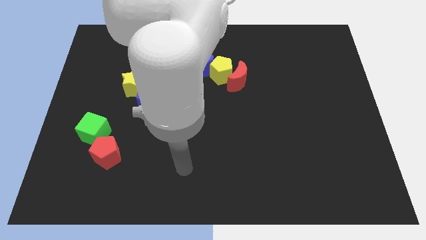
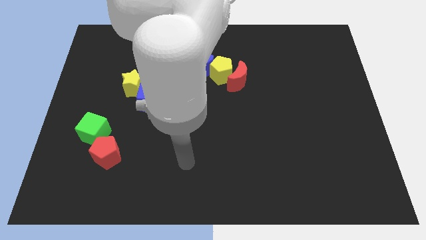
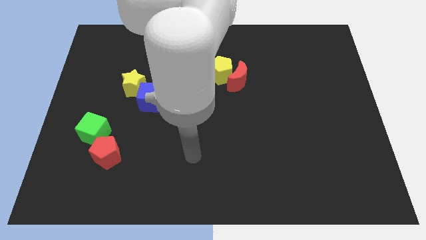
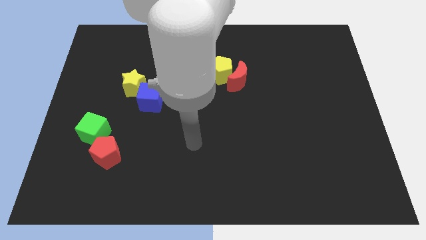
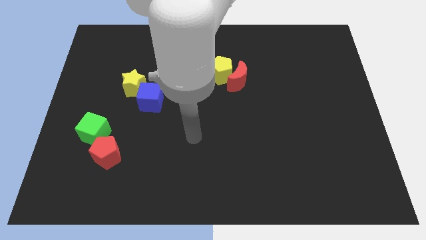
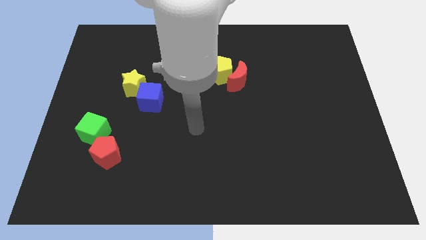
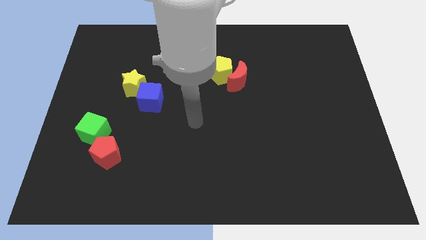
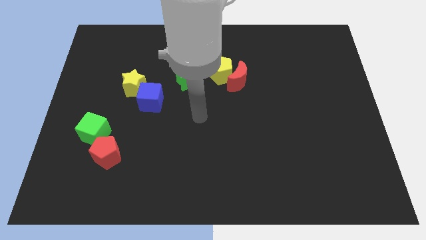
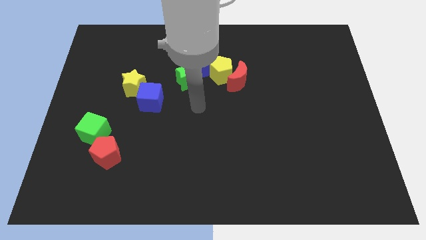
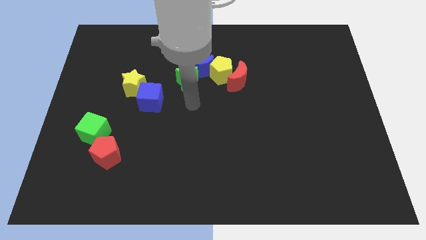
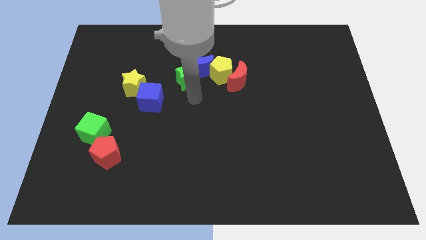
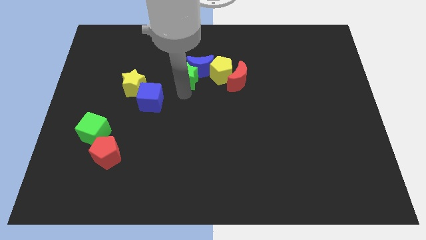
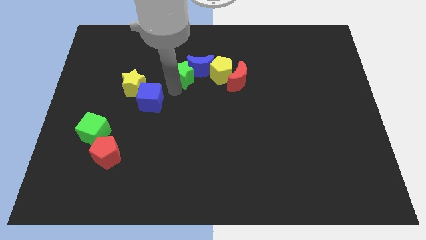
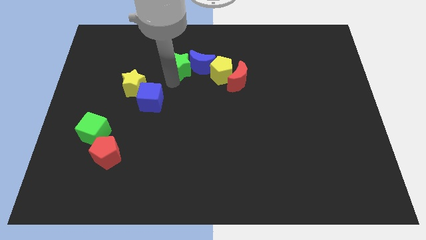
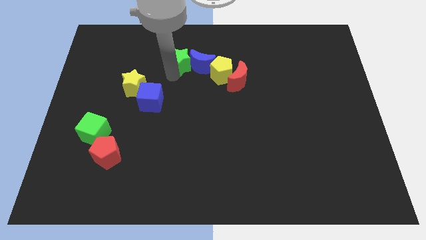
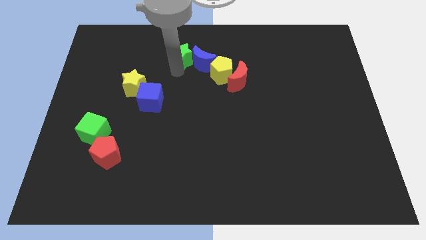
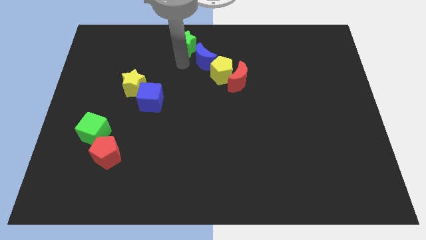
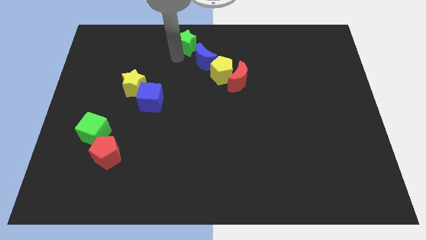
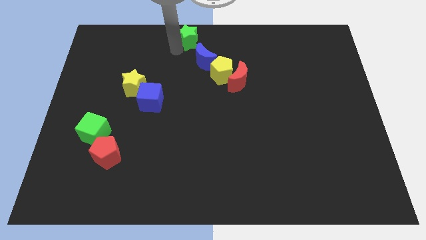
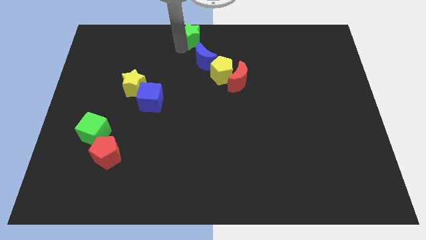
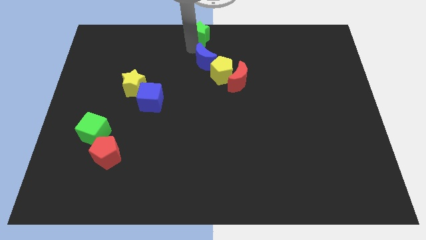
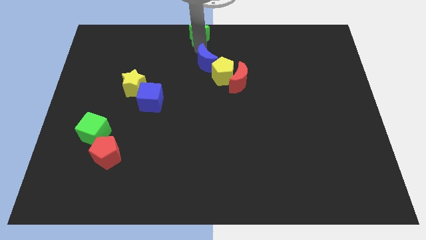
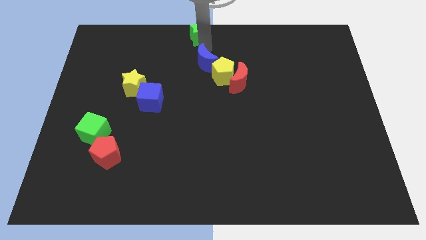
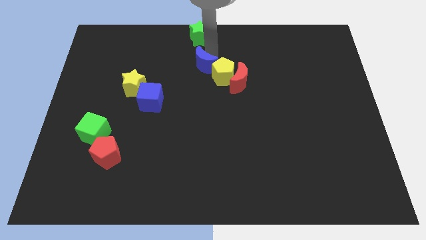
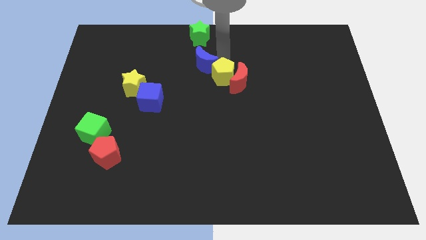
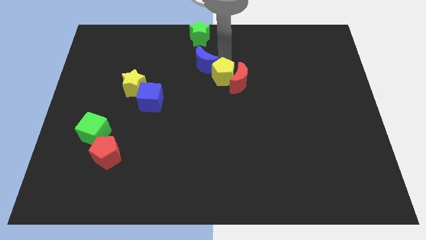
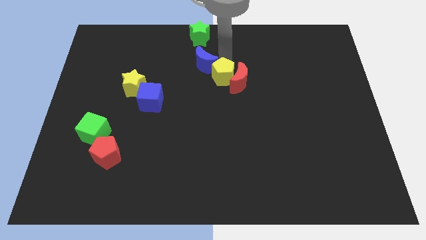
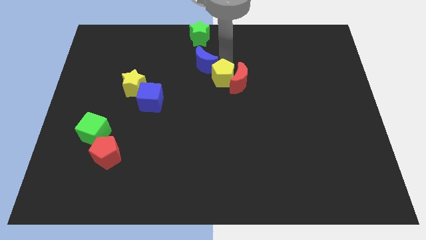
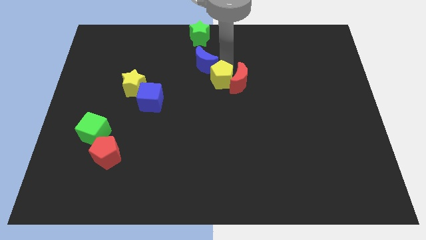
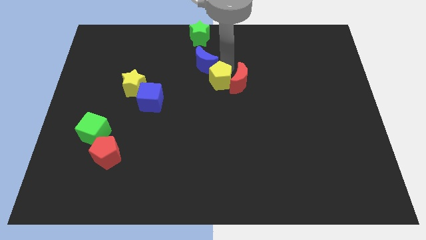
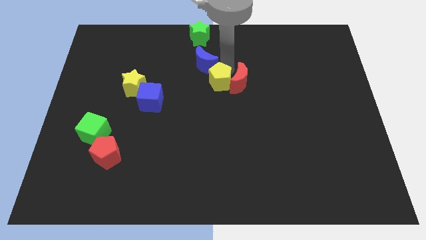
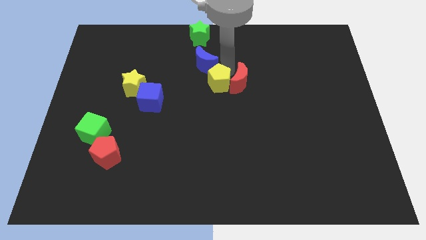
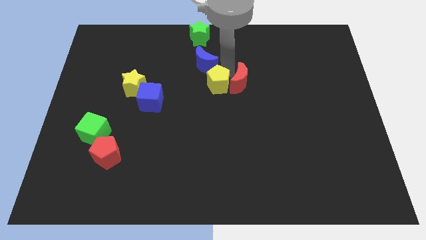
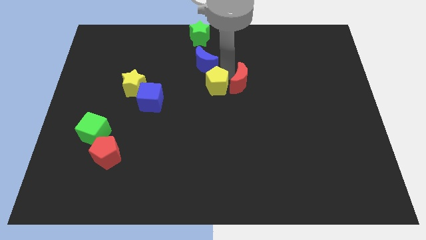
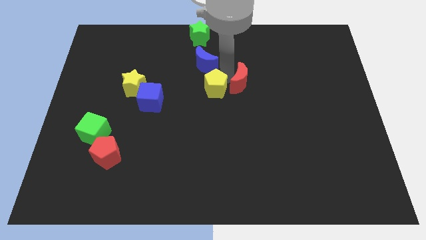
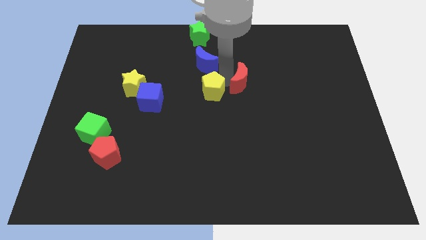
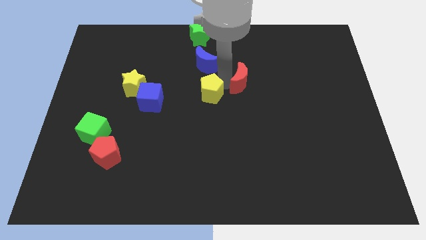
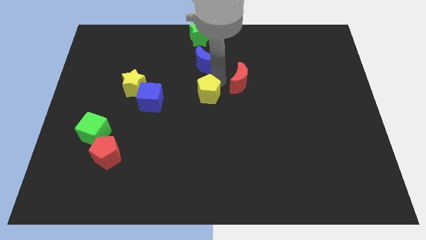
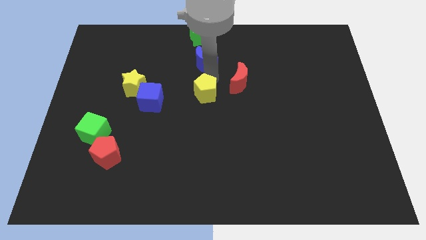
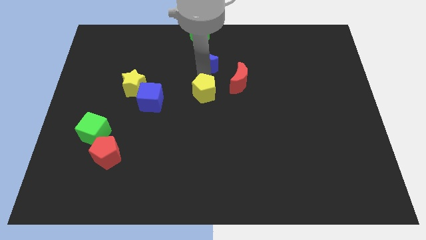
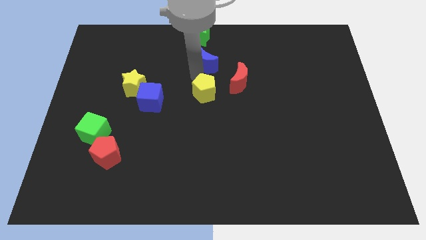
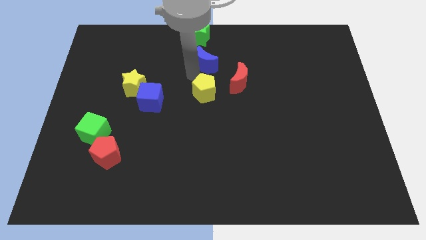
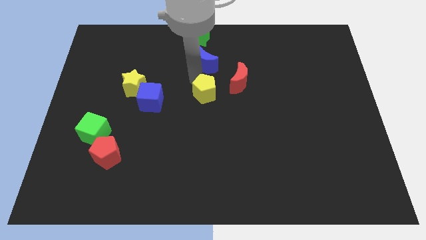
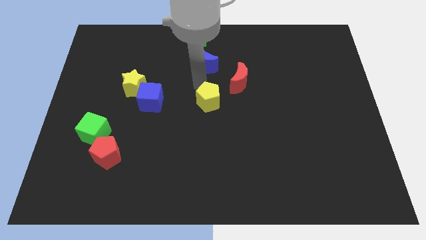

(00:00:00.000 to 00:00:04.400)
move the yellow pentagon a little bit downwards

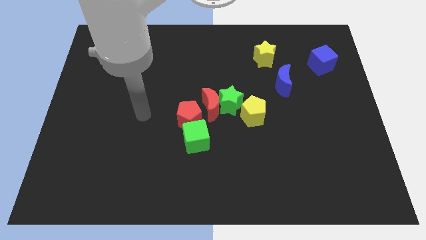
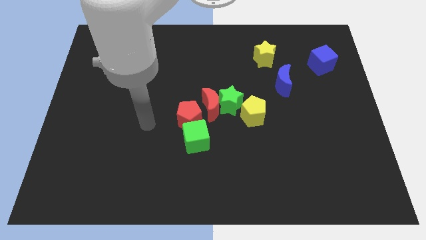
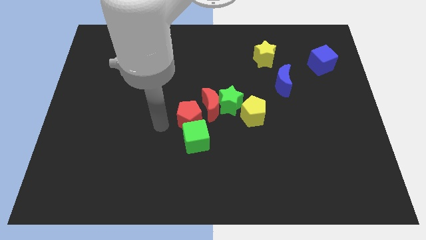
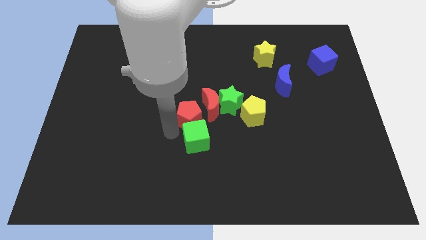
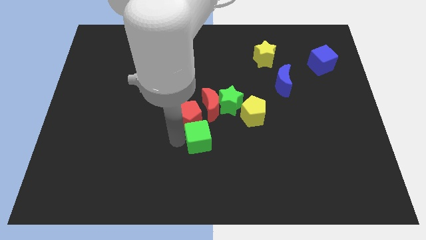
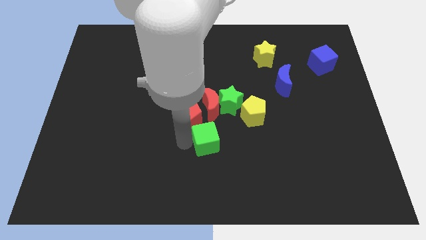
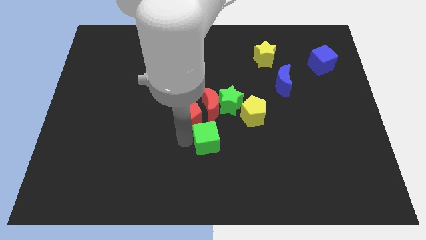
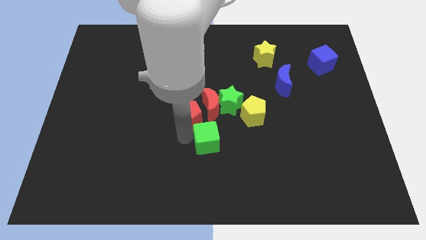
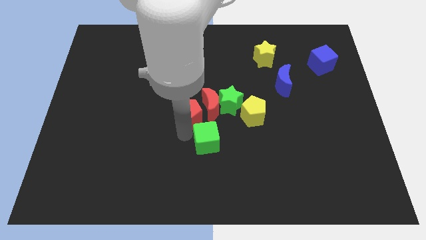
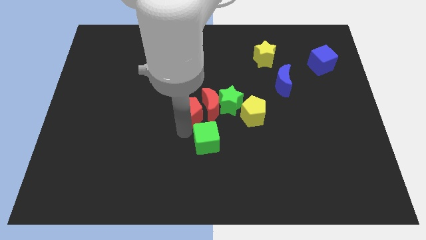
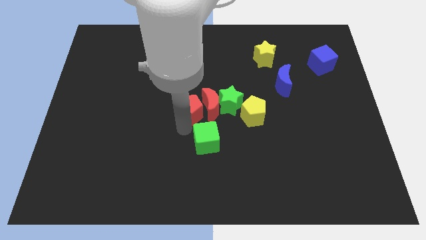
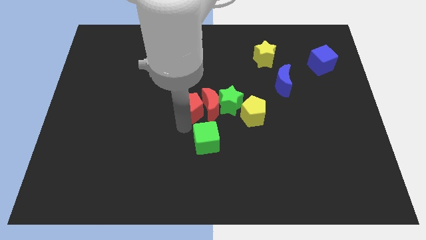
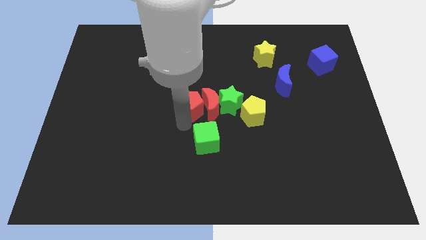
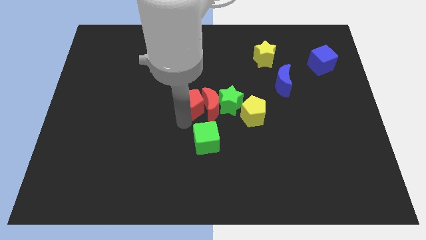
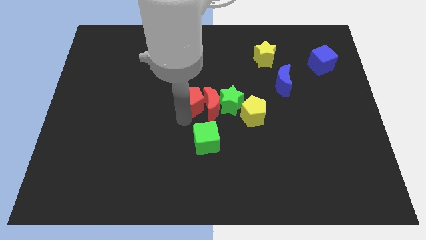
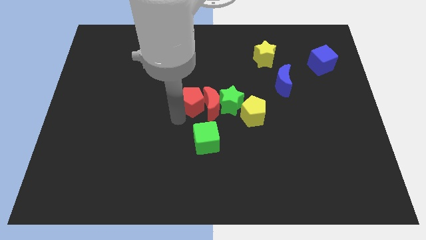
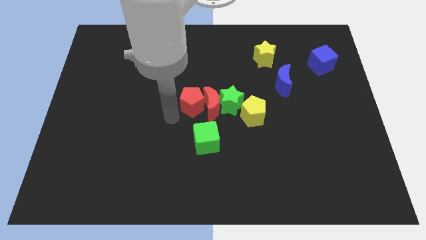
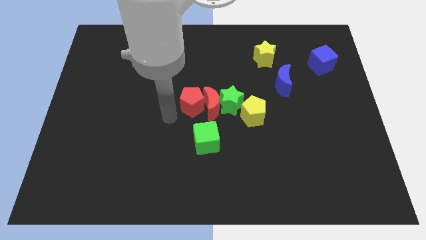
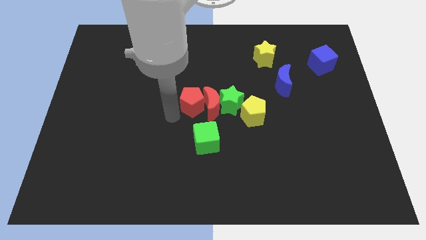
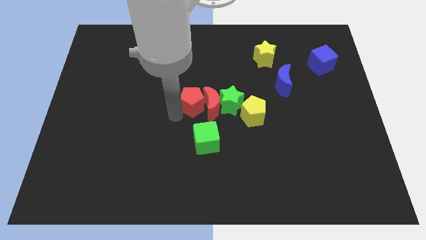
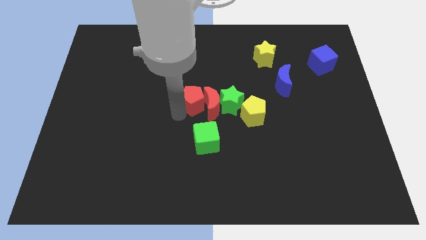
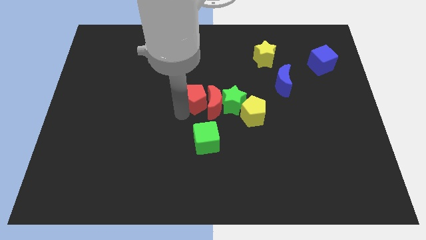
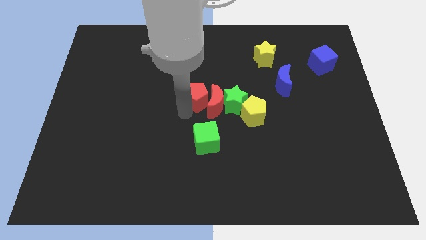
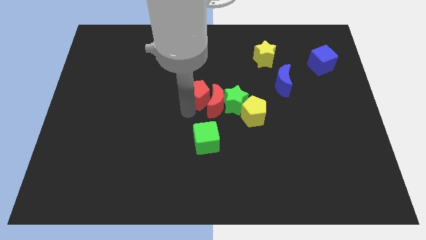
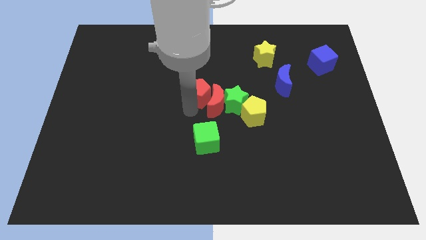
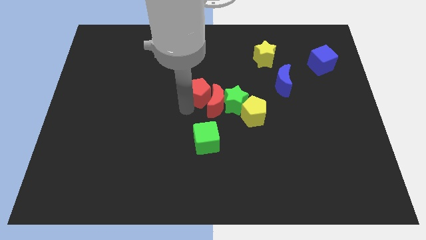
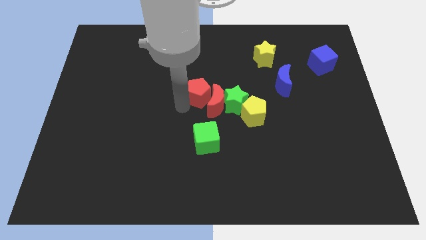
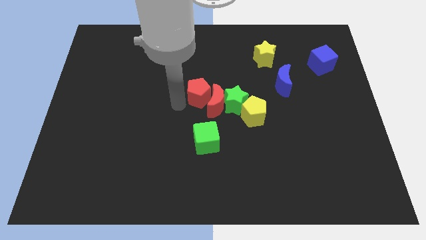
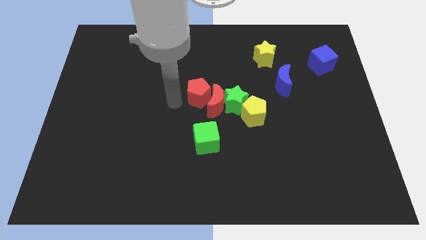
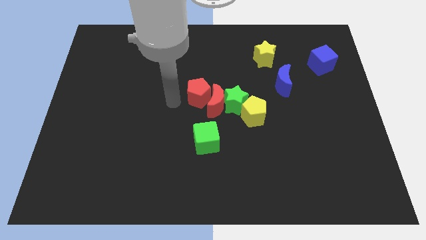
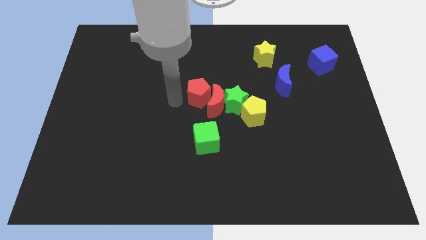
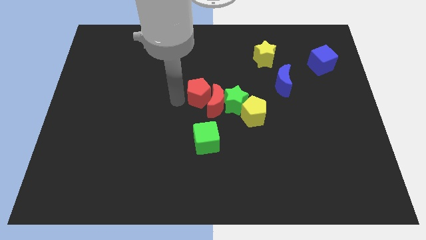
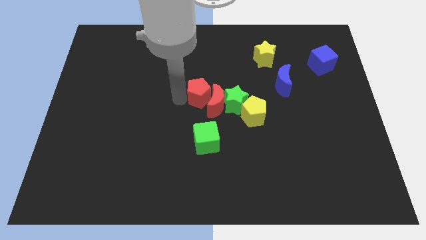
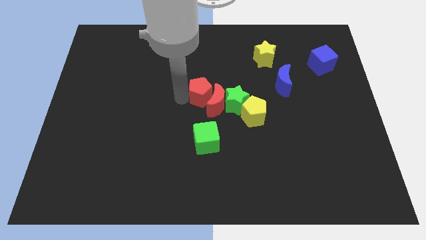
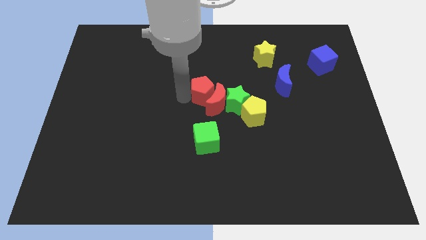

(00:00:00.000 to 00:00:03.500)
push the red pentagon a little bit diagonally up and right
